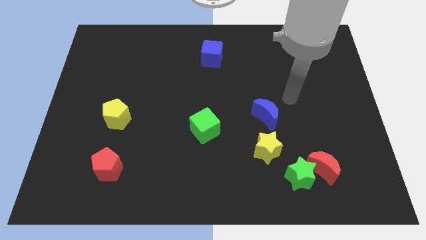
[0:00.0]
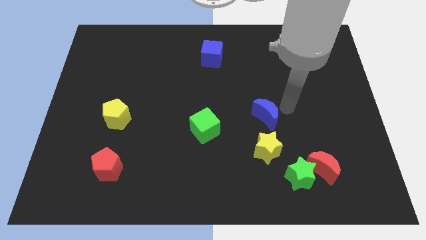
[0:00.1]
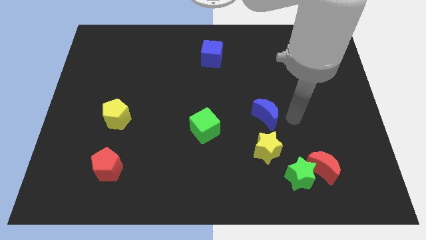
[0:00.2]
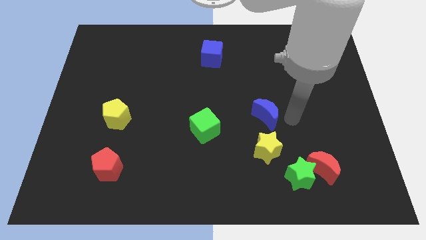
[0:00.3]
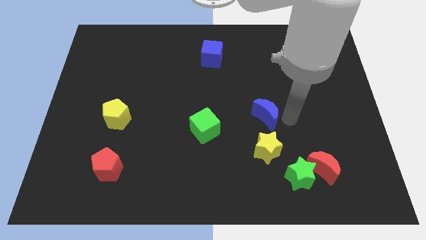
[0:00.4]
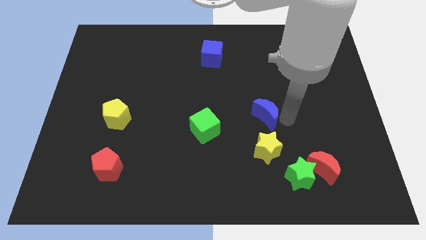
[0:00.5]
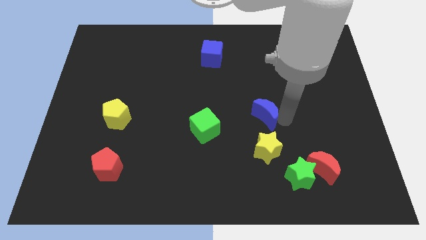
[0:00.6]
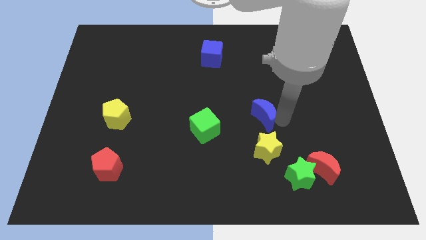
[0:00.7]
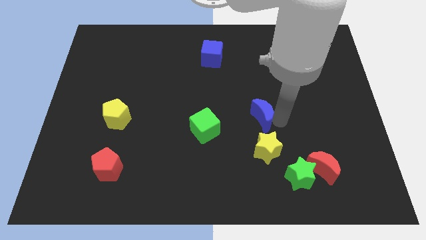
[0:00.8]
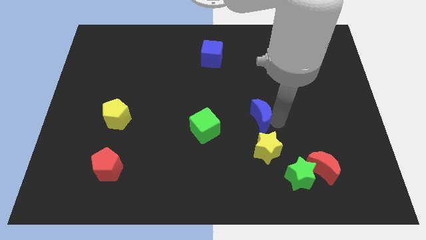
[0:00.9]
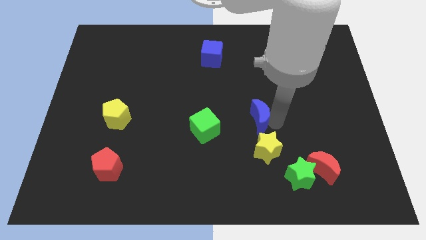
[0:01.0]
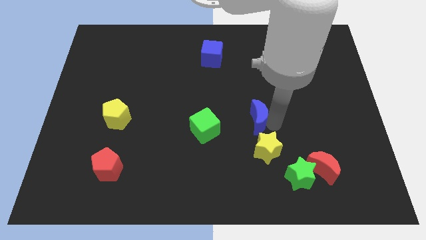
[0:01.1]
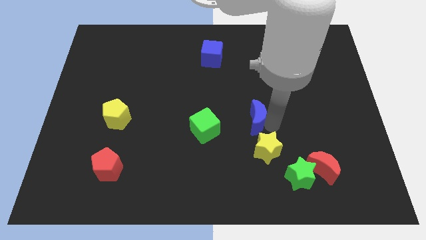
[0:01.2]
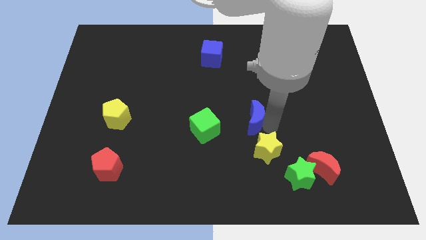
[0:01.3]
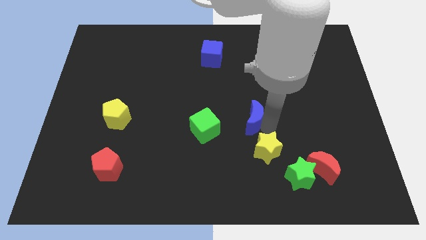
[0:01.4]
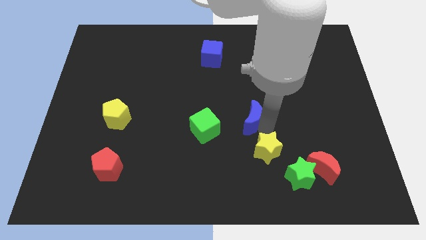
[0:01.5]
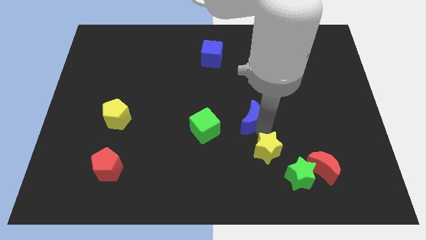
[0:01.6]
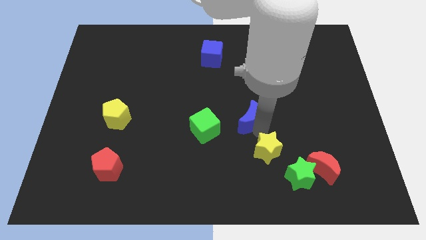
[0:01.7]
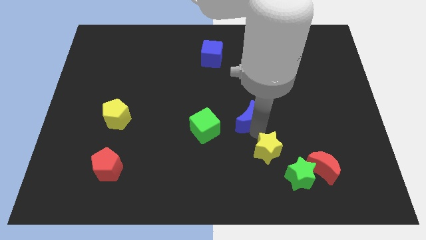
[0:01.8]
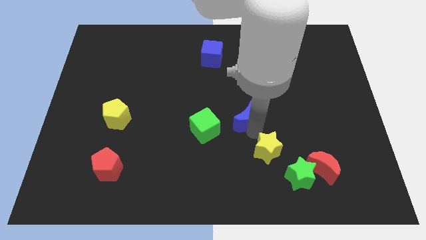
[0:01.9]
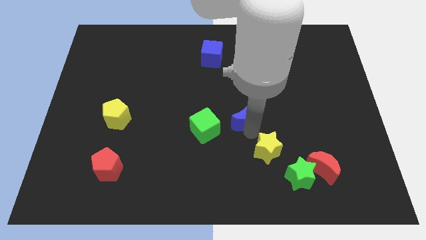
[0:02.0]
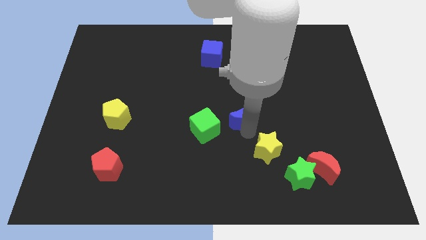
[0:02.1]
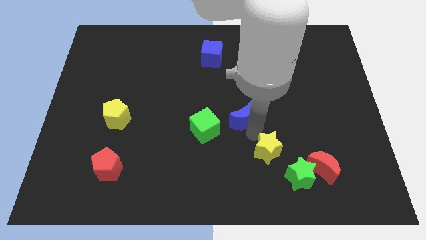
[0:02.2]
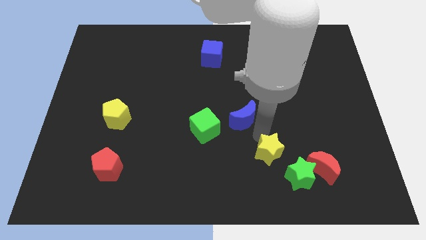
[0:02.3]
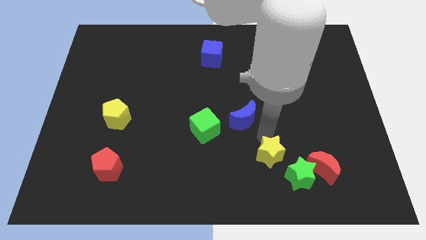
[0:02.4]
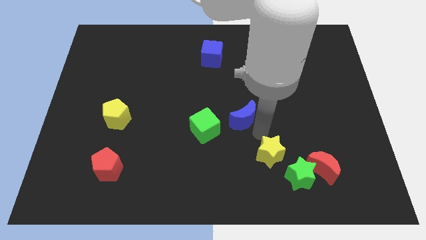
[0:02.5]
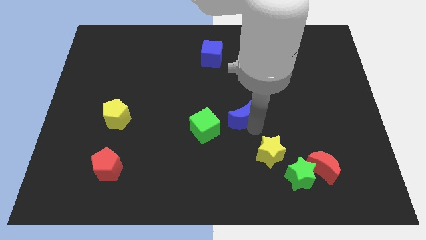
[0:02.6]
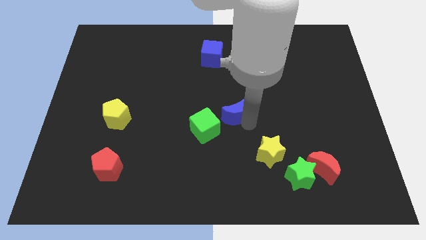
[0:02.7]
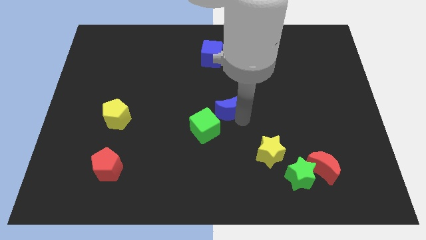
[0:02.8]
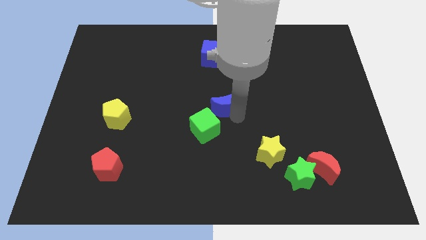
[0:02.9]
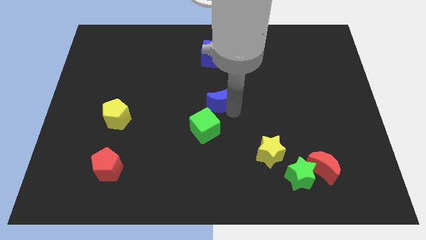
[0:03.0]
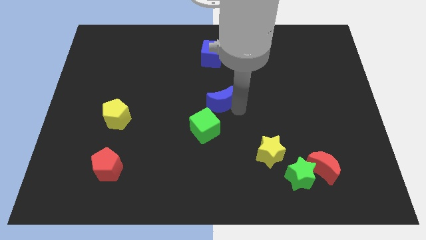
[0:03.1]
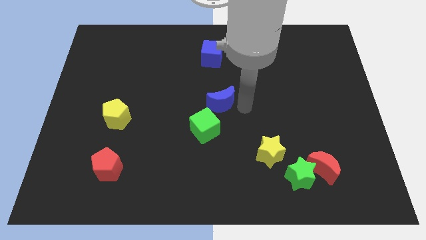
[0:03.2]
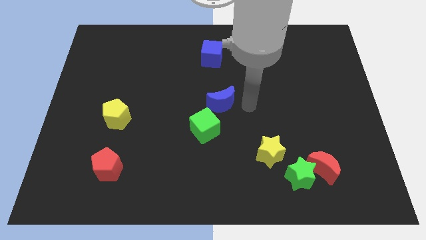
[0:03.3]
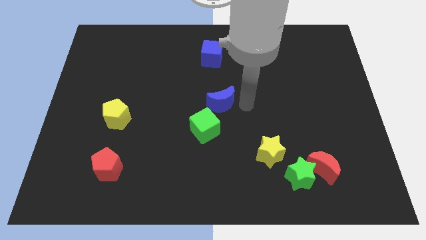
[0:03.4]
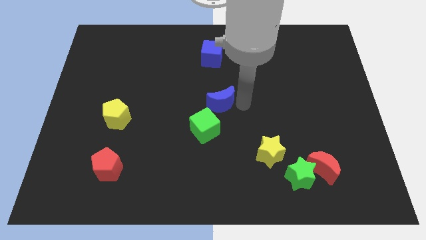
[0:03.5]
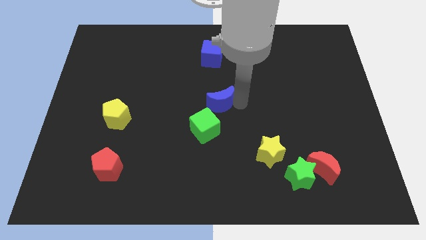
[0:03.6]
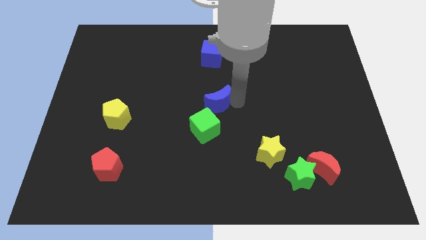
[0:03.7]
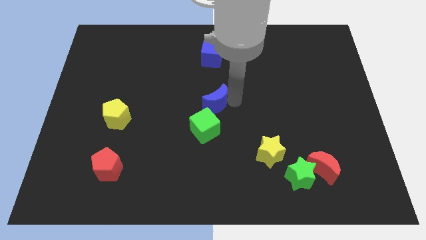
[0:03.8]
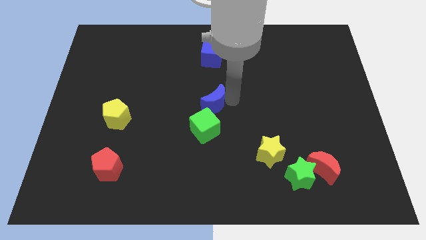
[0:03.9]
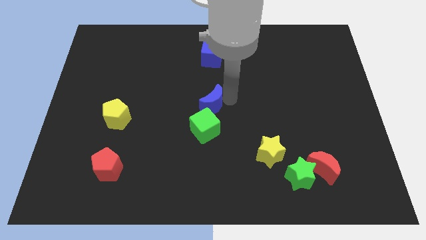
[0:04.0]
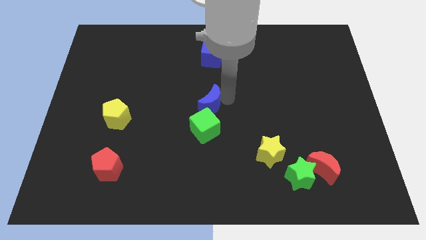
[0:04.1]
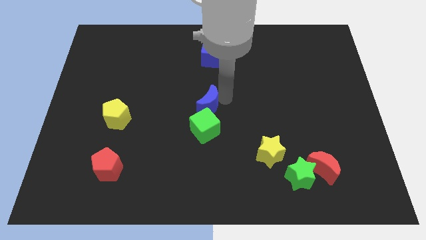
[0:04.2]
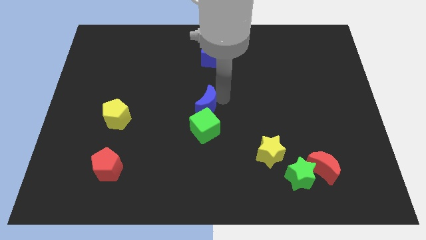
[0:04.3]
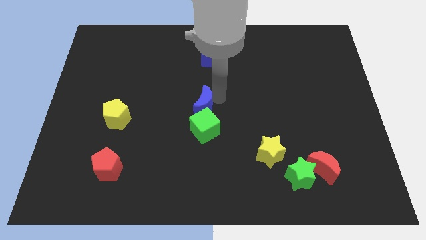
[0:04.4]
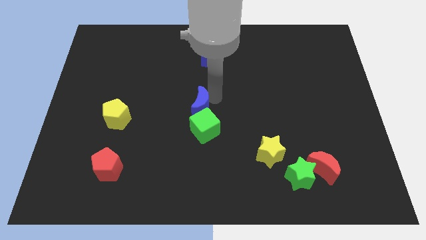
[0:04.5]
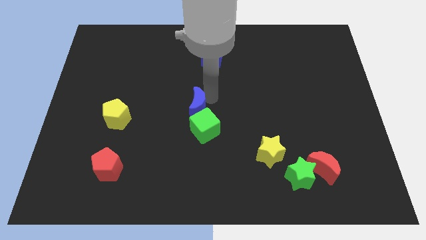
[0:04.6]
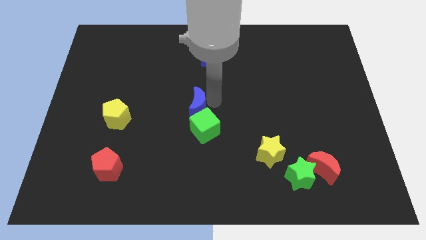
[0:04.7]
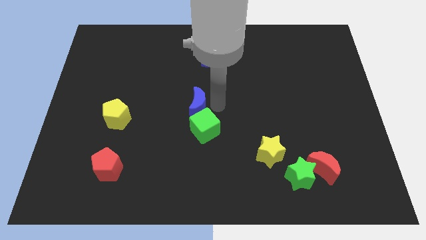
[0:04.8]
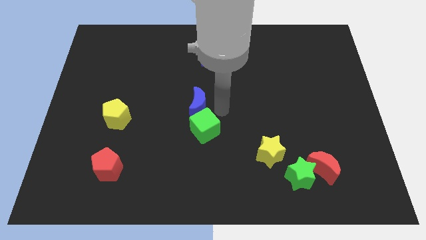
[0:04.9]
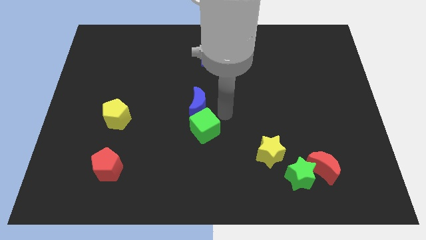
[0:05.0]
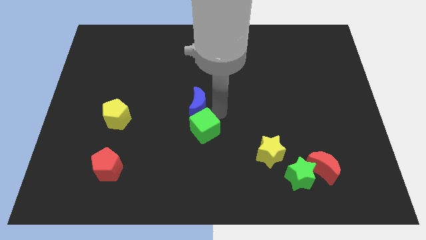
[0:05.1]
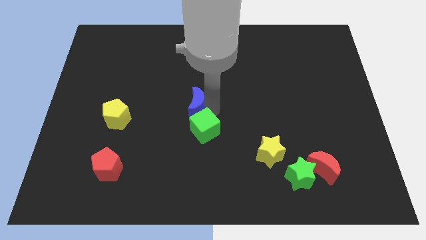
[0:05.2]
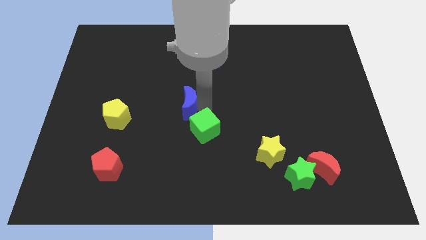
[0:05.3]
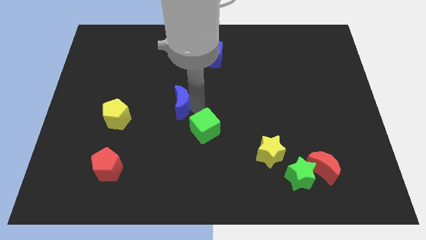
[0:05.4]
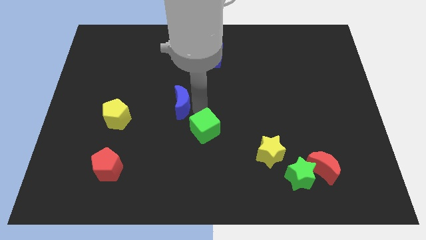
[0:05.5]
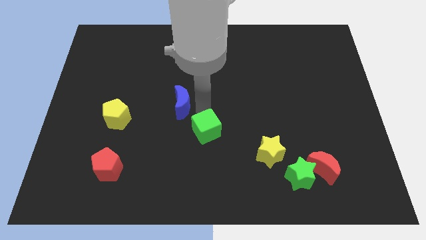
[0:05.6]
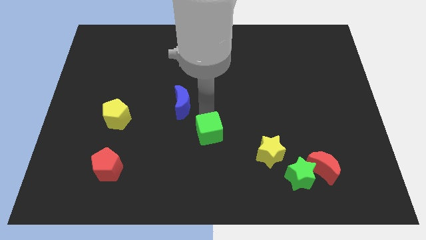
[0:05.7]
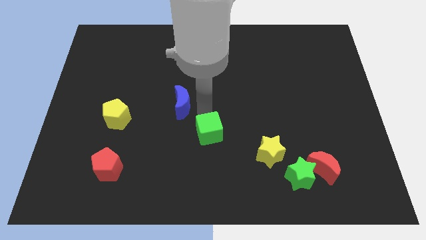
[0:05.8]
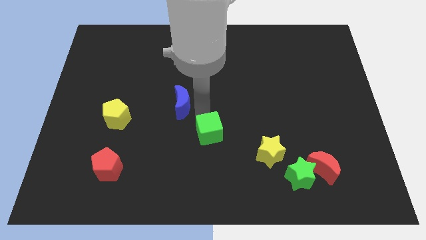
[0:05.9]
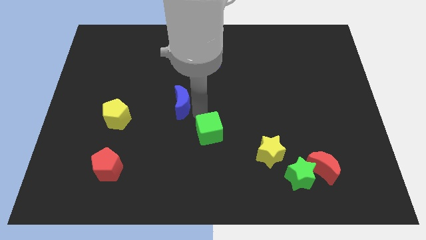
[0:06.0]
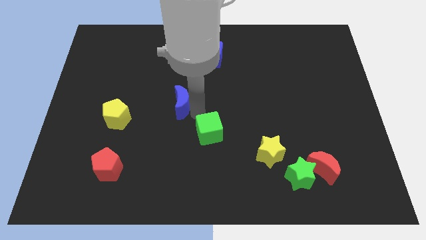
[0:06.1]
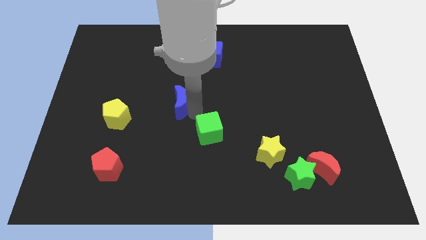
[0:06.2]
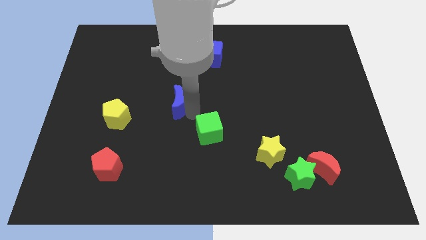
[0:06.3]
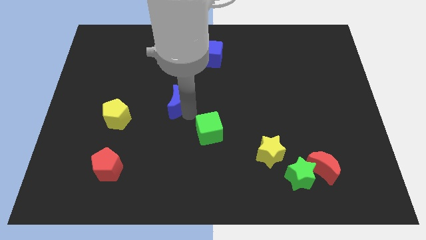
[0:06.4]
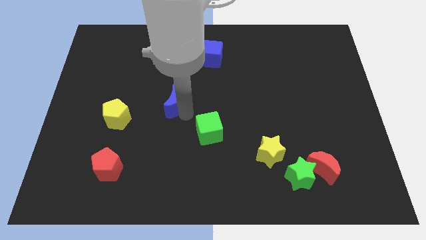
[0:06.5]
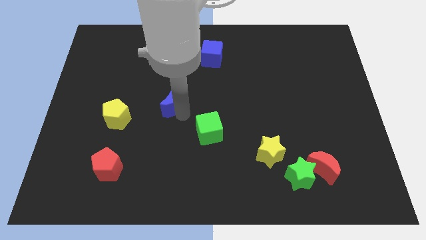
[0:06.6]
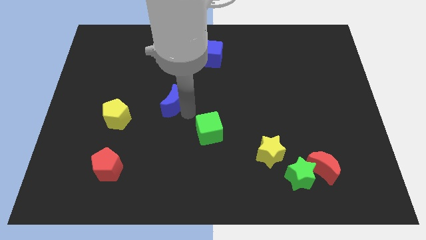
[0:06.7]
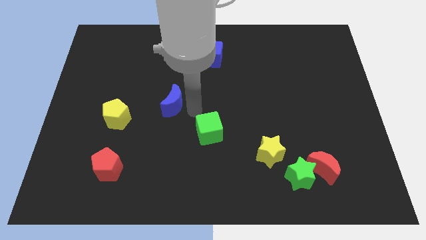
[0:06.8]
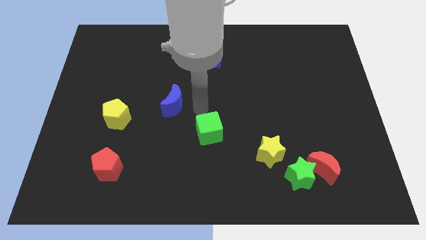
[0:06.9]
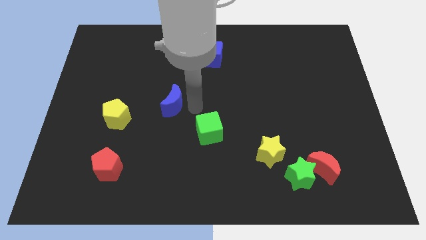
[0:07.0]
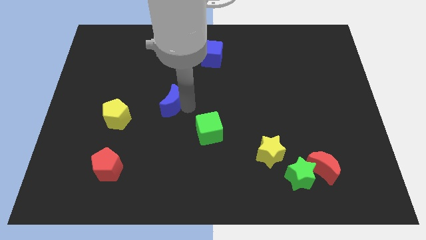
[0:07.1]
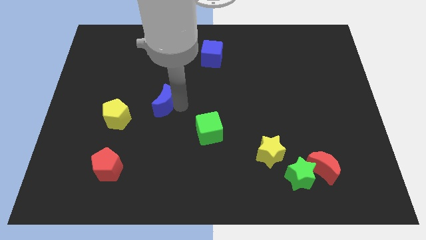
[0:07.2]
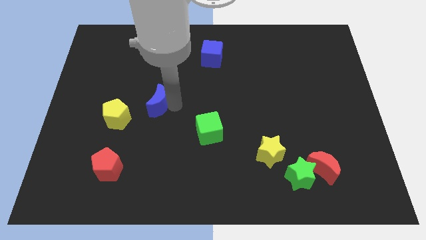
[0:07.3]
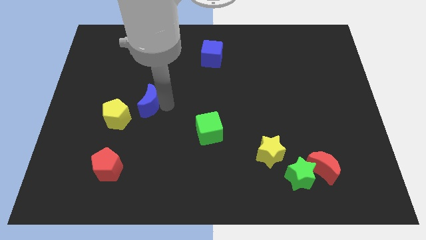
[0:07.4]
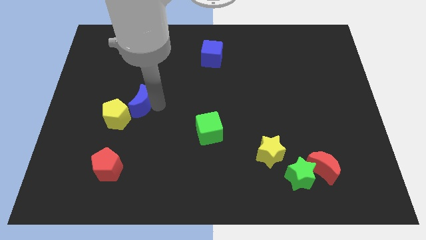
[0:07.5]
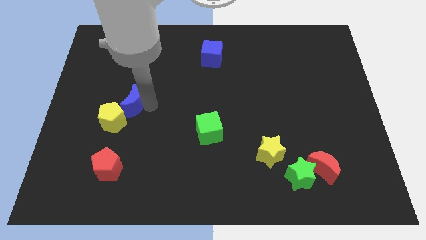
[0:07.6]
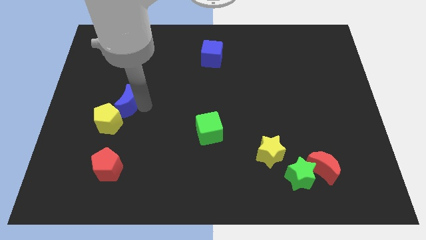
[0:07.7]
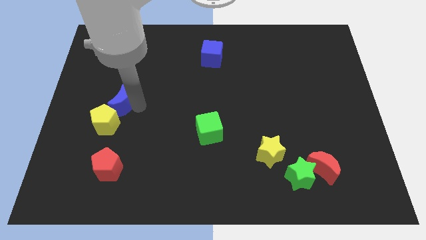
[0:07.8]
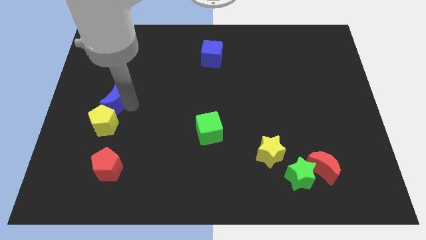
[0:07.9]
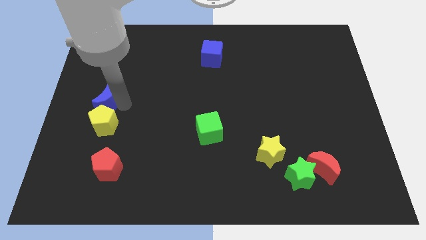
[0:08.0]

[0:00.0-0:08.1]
put the blue moon to the left side
